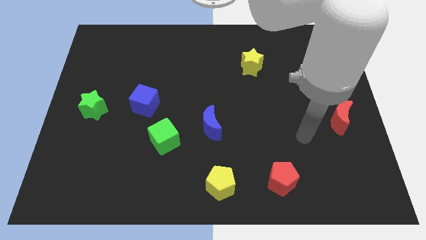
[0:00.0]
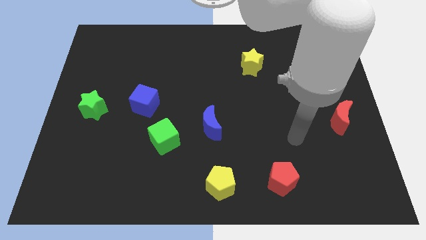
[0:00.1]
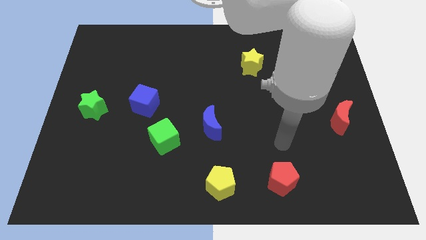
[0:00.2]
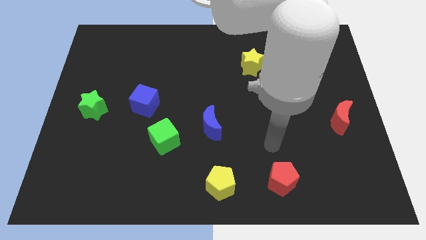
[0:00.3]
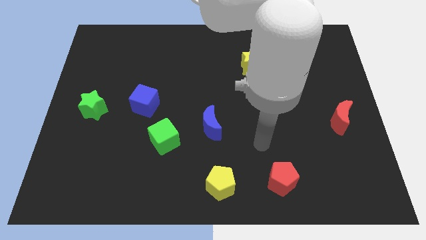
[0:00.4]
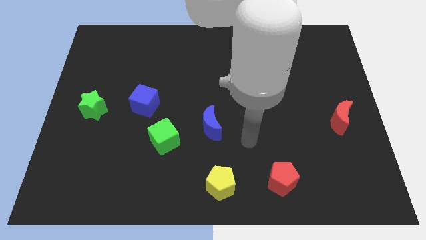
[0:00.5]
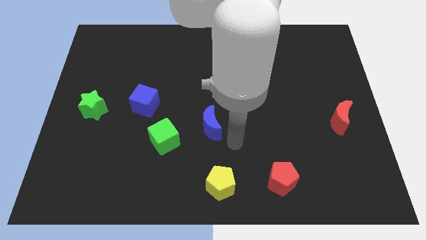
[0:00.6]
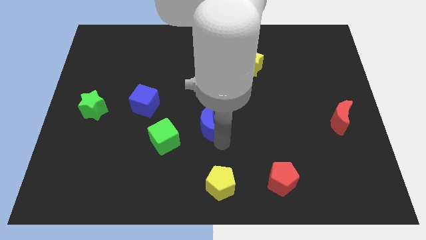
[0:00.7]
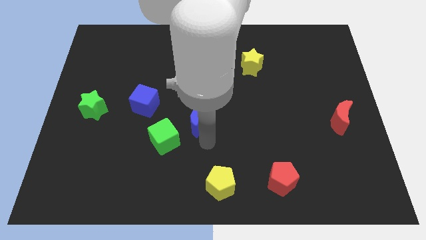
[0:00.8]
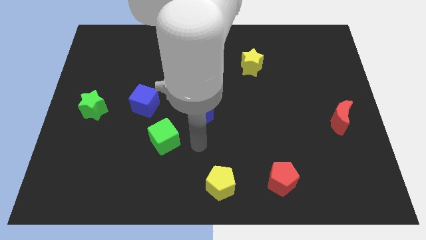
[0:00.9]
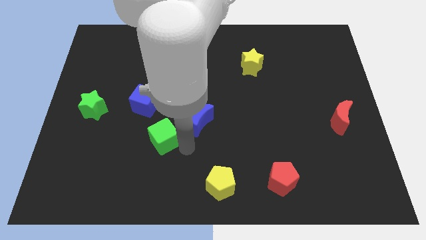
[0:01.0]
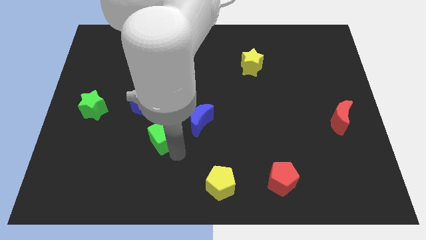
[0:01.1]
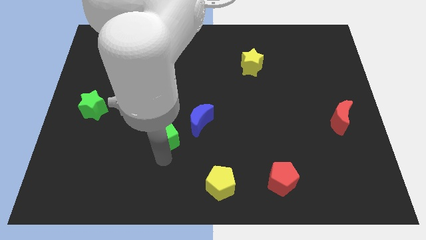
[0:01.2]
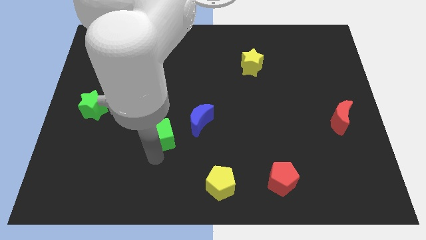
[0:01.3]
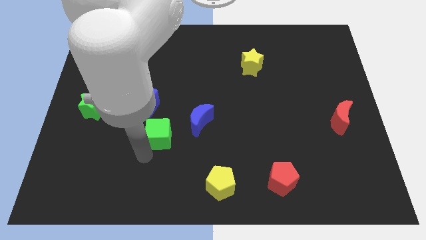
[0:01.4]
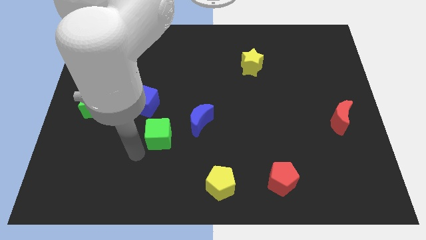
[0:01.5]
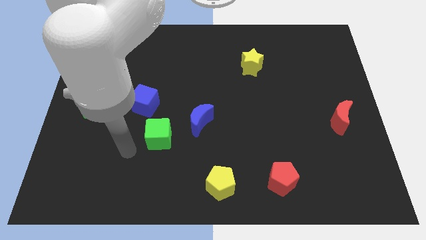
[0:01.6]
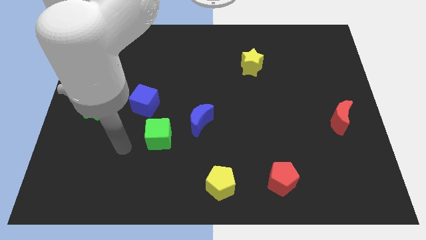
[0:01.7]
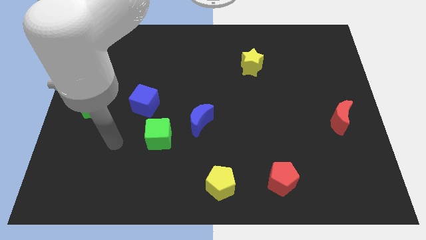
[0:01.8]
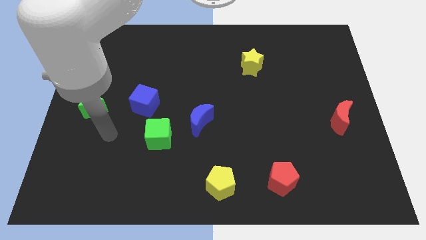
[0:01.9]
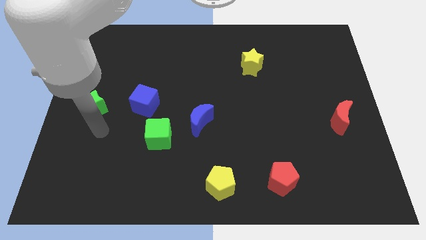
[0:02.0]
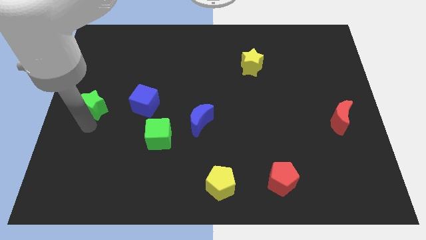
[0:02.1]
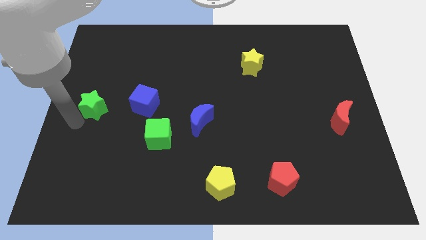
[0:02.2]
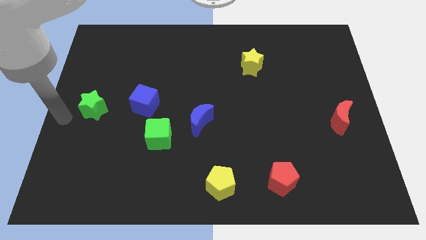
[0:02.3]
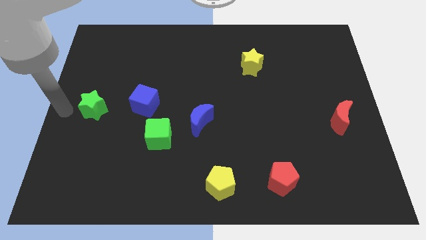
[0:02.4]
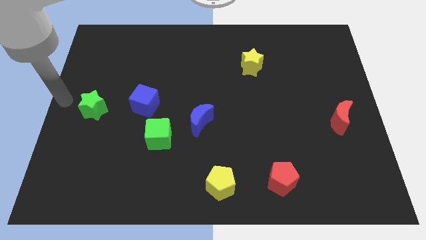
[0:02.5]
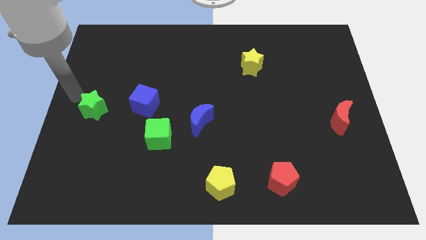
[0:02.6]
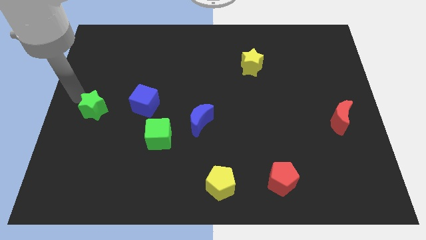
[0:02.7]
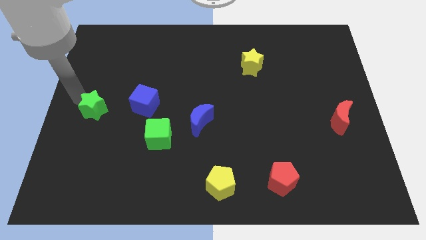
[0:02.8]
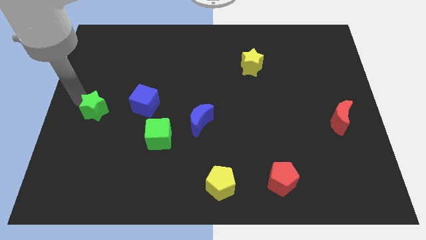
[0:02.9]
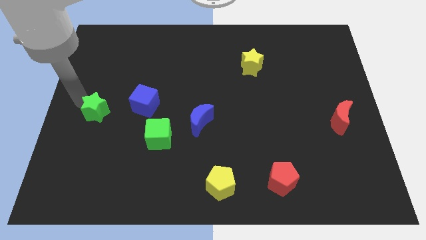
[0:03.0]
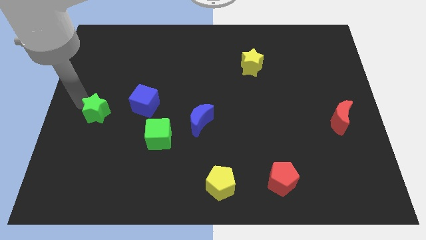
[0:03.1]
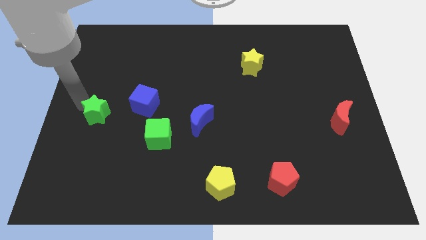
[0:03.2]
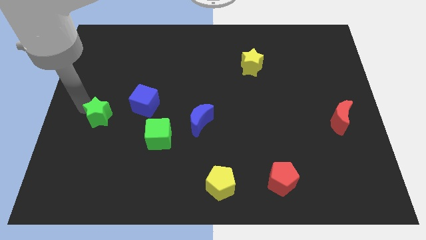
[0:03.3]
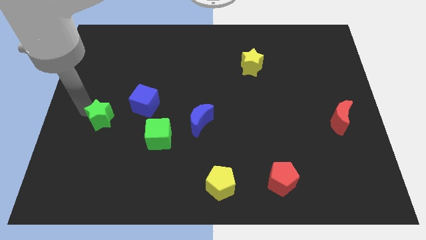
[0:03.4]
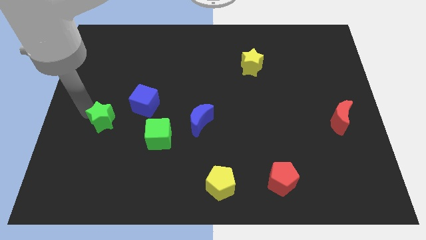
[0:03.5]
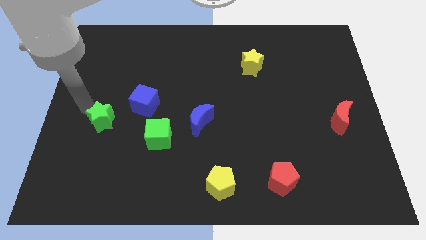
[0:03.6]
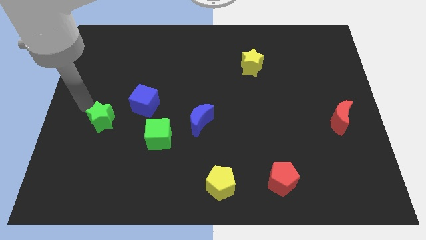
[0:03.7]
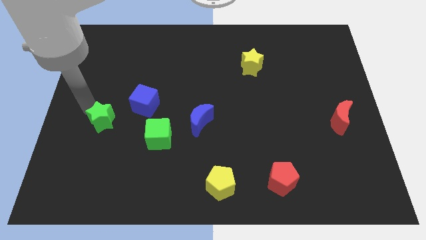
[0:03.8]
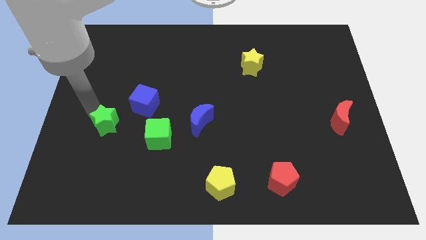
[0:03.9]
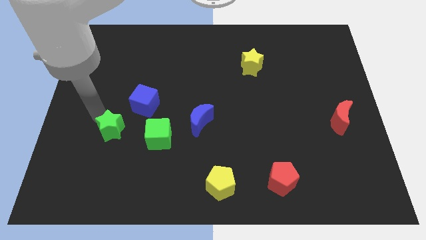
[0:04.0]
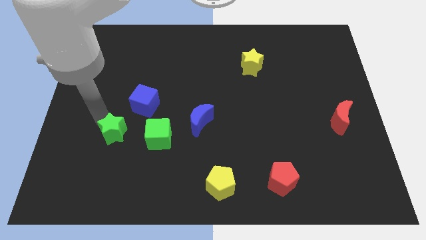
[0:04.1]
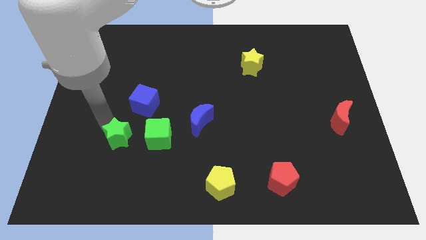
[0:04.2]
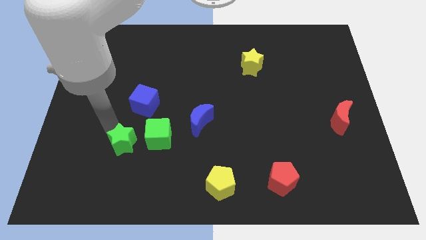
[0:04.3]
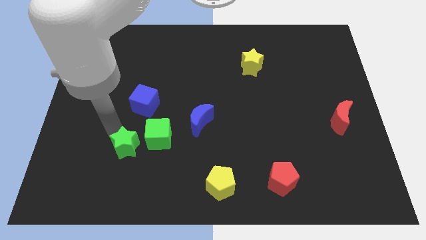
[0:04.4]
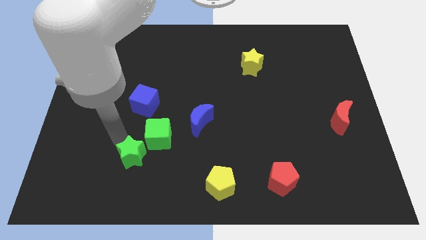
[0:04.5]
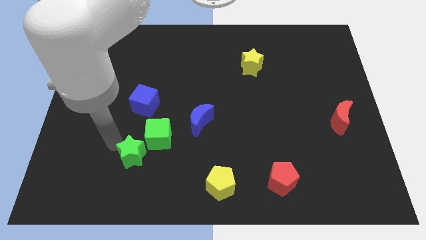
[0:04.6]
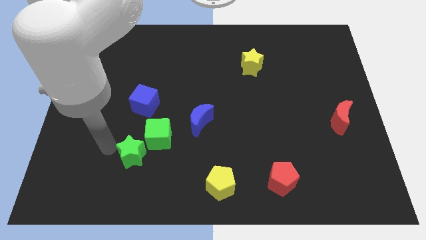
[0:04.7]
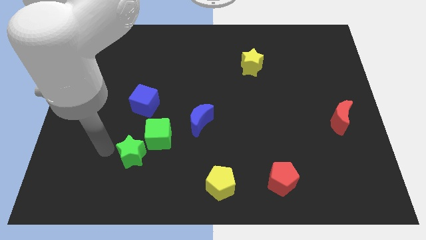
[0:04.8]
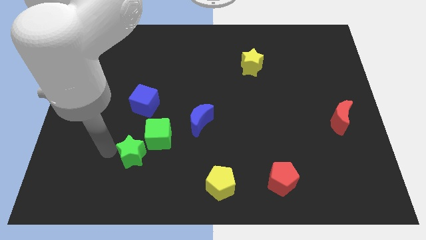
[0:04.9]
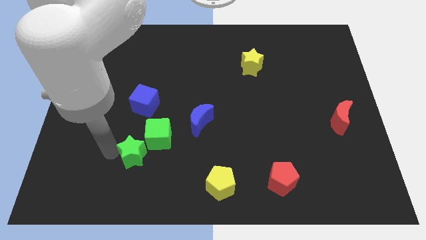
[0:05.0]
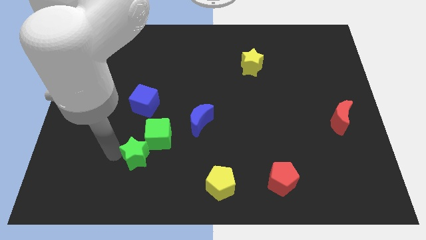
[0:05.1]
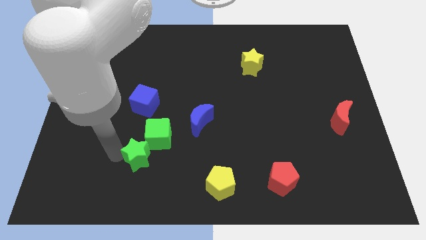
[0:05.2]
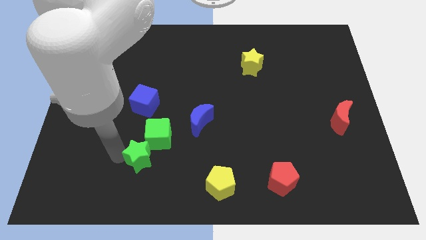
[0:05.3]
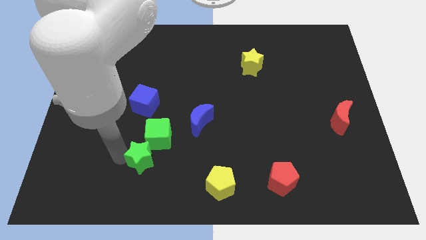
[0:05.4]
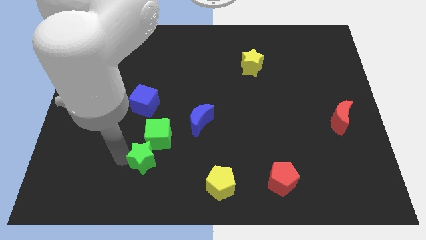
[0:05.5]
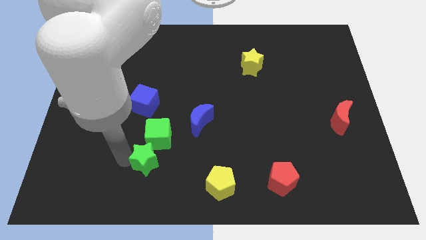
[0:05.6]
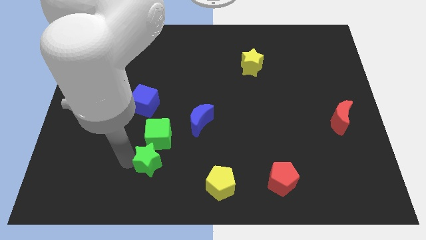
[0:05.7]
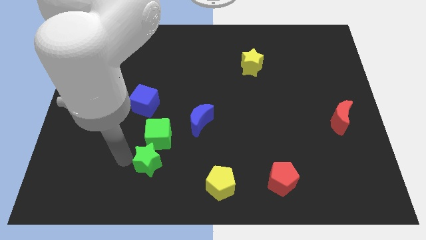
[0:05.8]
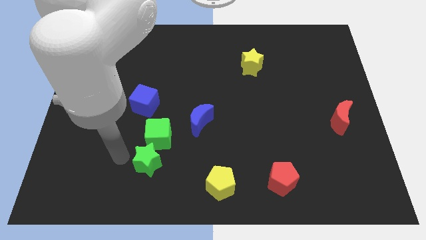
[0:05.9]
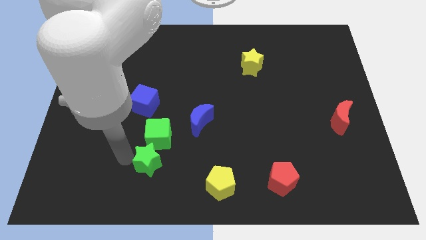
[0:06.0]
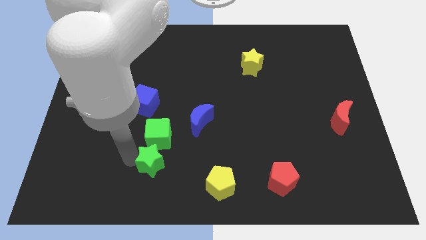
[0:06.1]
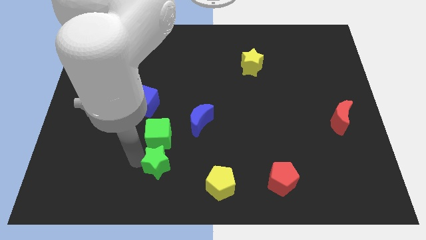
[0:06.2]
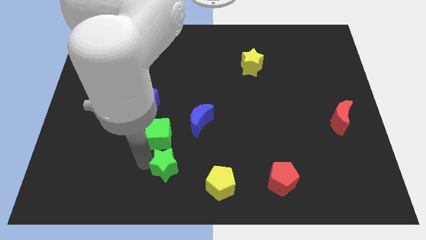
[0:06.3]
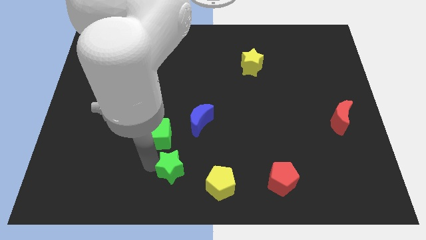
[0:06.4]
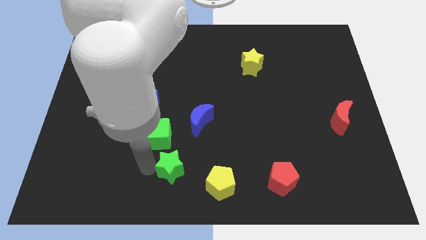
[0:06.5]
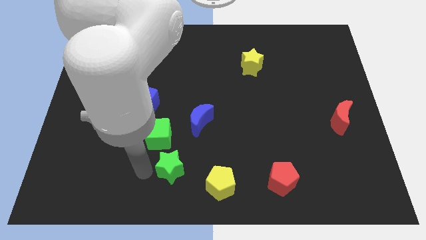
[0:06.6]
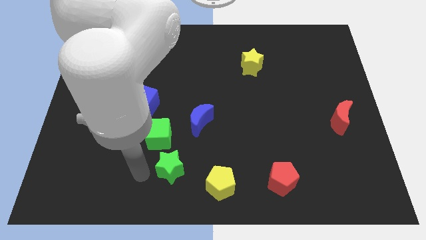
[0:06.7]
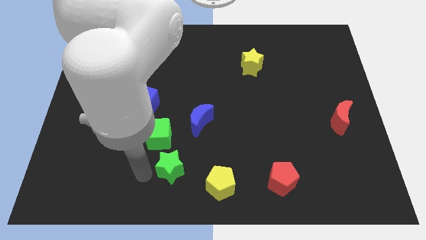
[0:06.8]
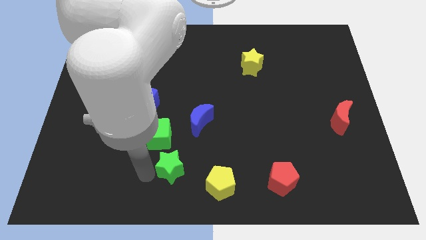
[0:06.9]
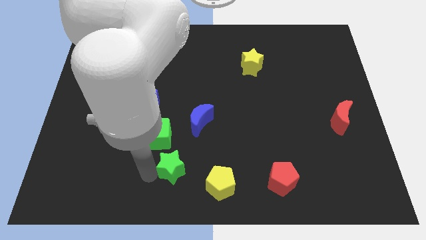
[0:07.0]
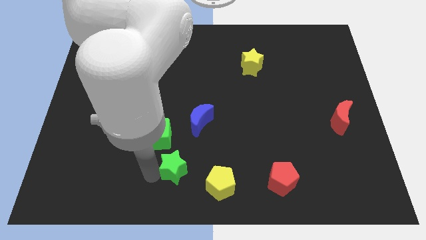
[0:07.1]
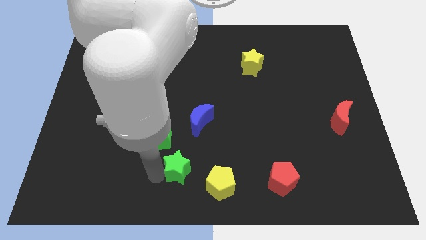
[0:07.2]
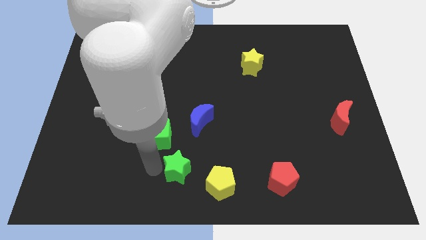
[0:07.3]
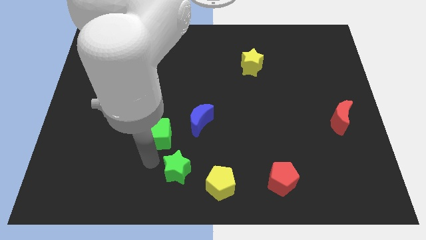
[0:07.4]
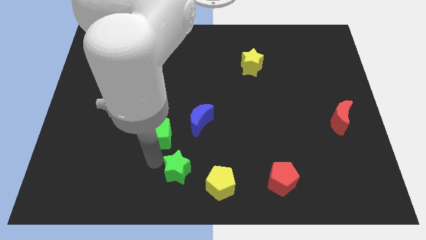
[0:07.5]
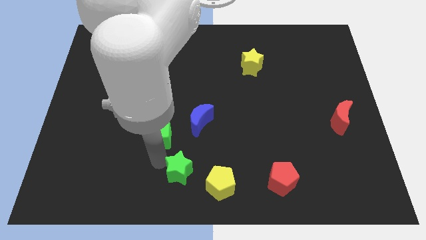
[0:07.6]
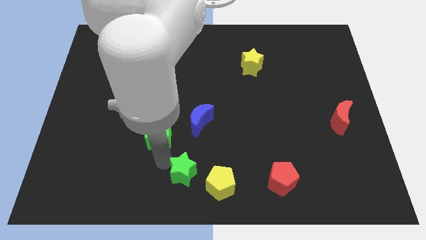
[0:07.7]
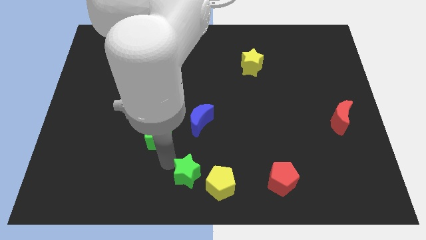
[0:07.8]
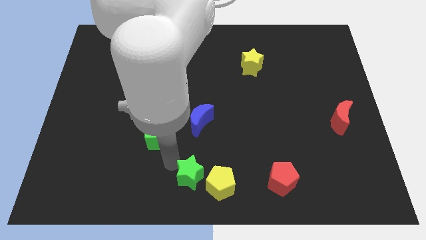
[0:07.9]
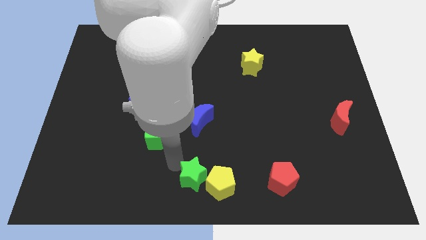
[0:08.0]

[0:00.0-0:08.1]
slide the green star next to the yellow pentagon
